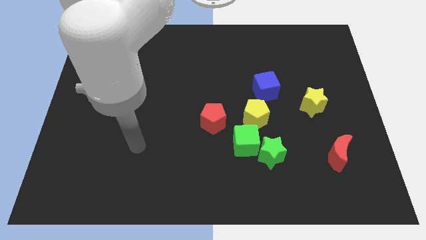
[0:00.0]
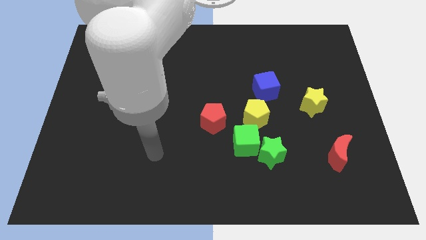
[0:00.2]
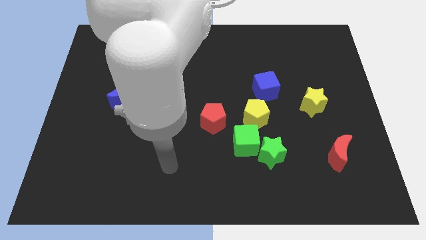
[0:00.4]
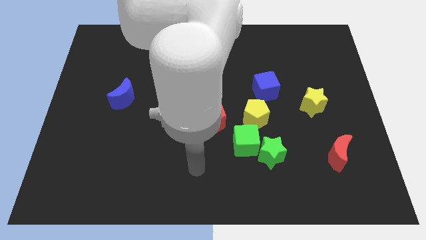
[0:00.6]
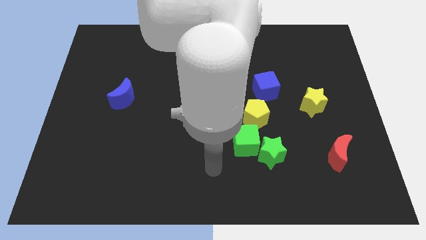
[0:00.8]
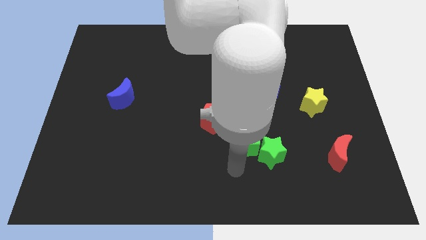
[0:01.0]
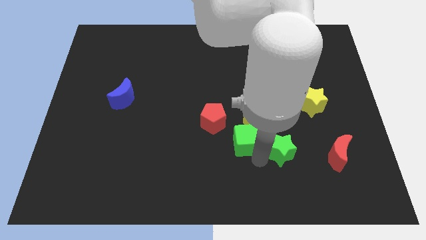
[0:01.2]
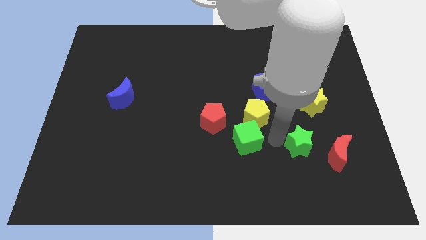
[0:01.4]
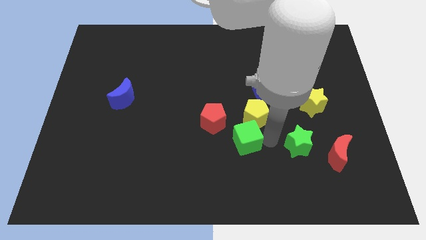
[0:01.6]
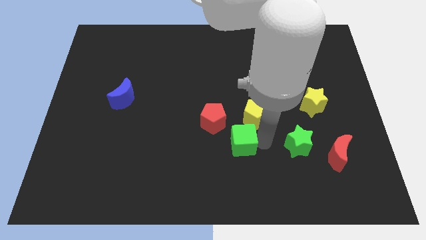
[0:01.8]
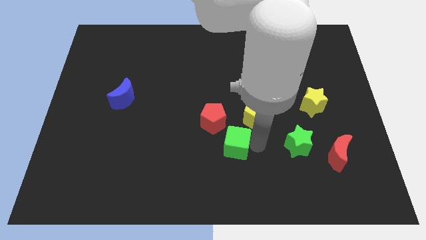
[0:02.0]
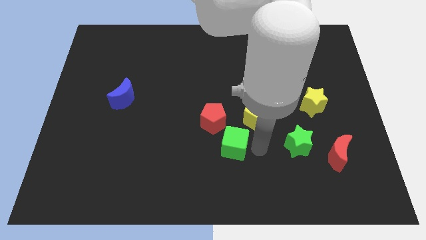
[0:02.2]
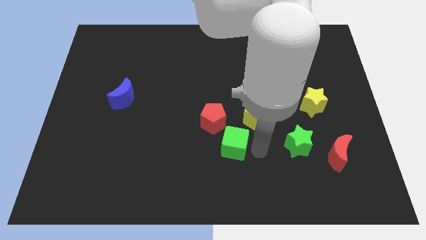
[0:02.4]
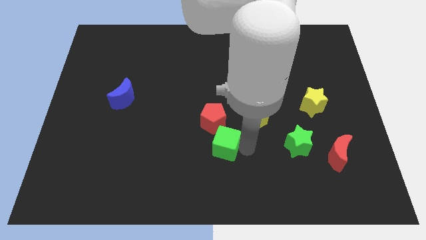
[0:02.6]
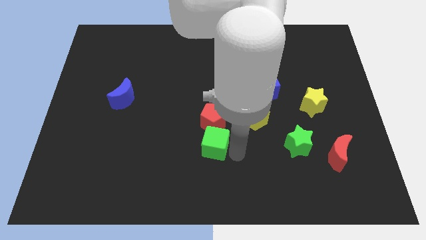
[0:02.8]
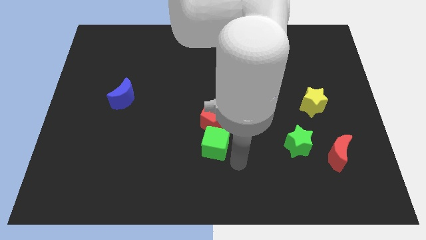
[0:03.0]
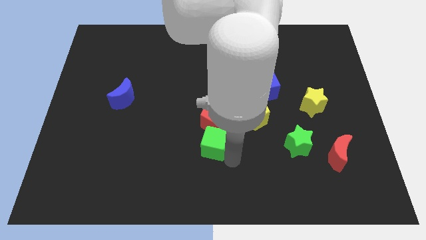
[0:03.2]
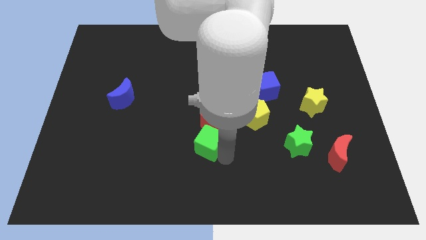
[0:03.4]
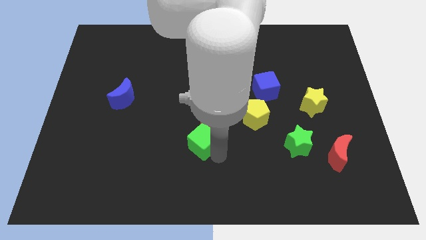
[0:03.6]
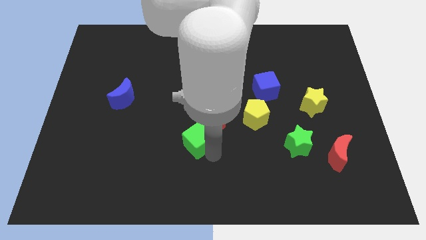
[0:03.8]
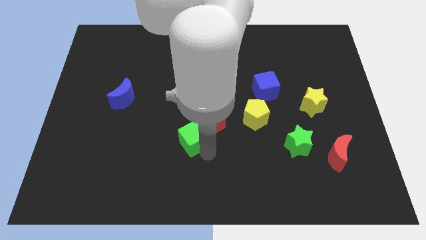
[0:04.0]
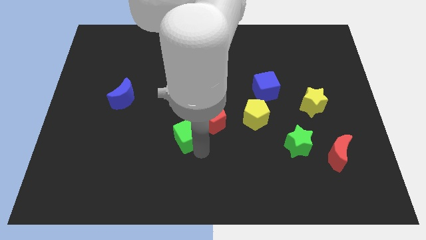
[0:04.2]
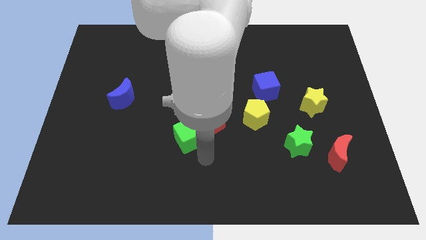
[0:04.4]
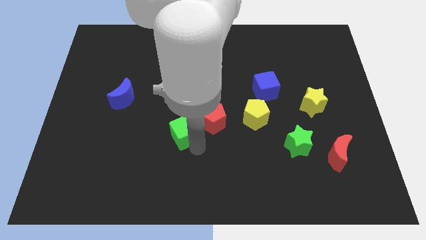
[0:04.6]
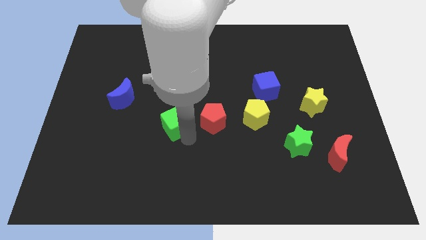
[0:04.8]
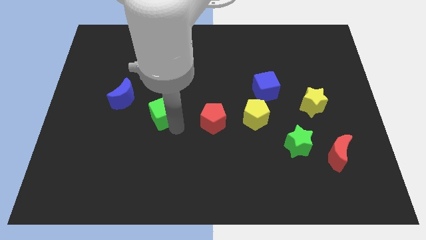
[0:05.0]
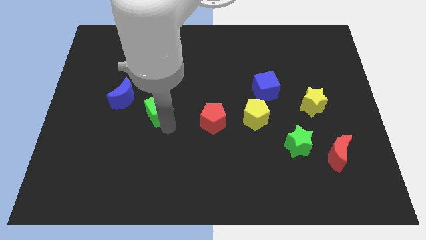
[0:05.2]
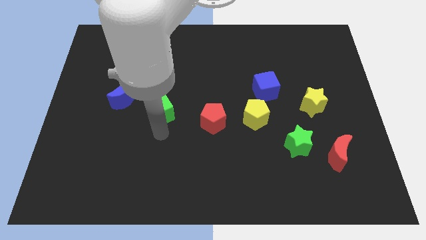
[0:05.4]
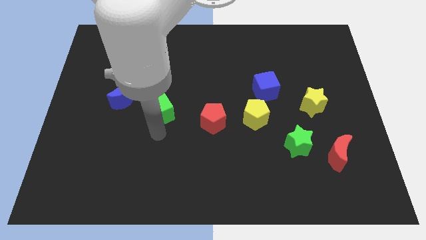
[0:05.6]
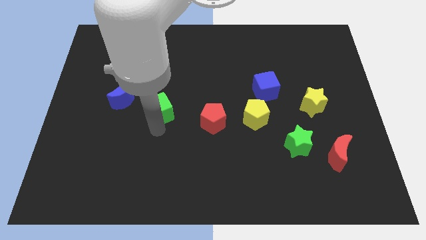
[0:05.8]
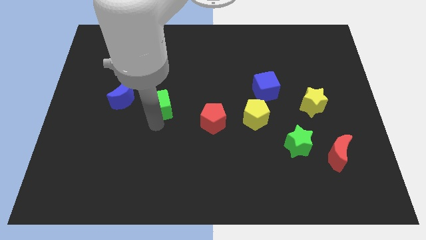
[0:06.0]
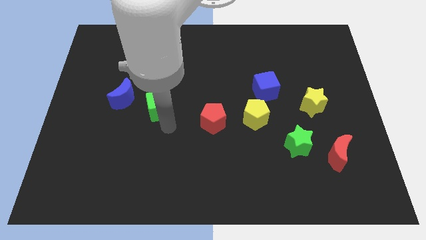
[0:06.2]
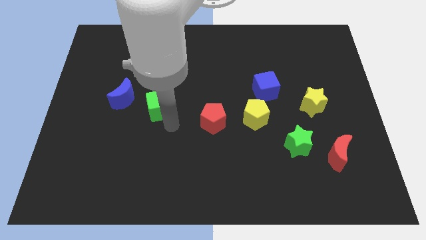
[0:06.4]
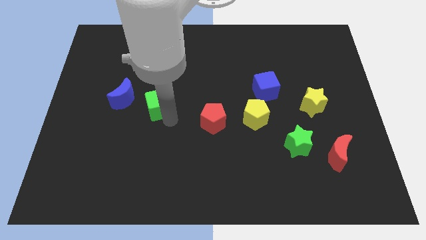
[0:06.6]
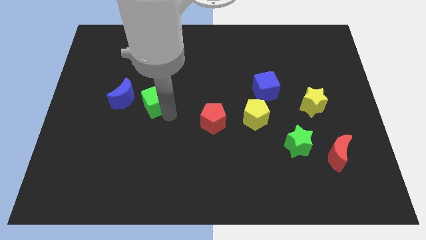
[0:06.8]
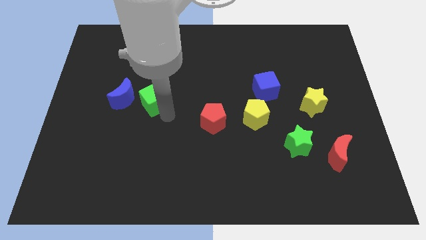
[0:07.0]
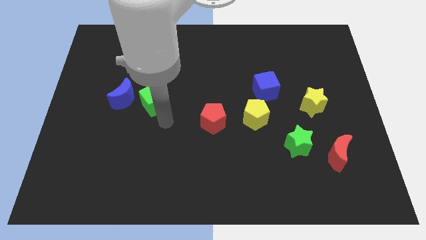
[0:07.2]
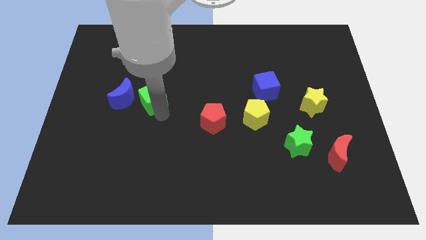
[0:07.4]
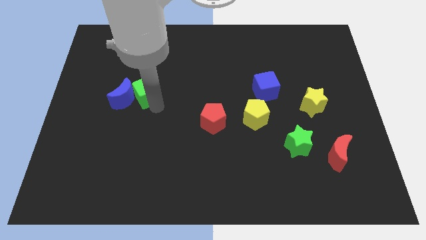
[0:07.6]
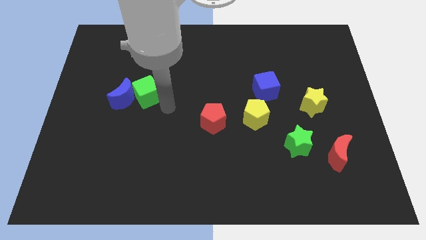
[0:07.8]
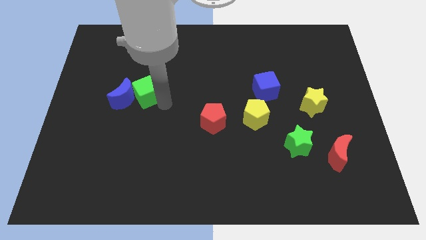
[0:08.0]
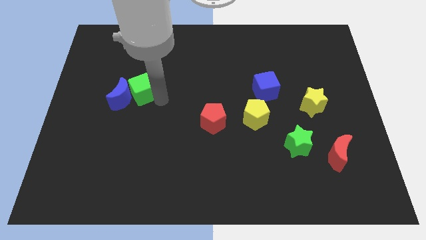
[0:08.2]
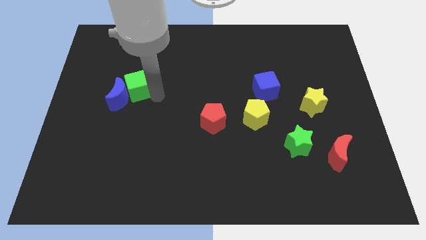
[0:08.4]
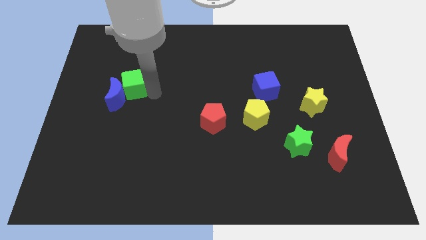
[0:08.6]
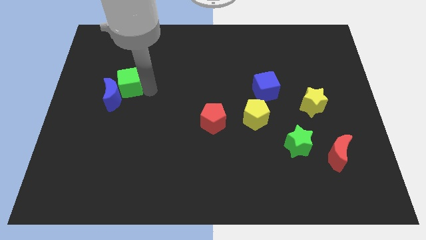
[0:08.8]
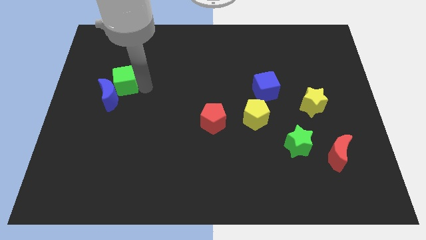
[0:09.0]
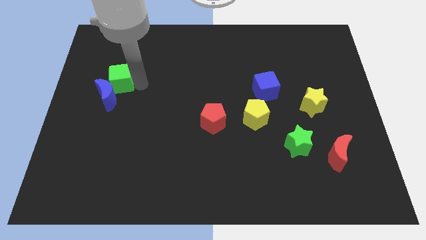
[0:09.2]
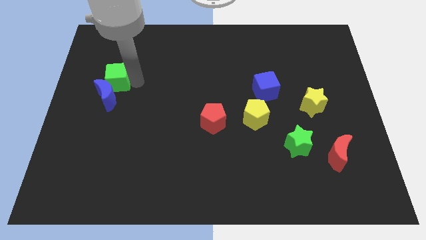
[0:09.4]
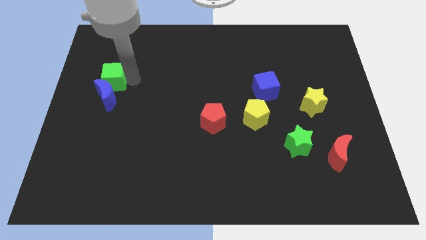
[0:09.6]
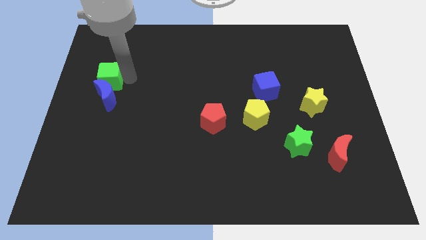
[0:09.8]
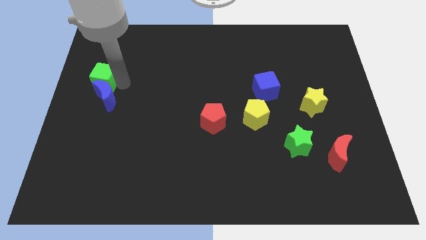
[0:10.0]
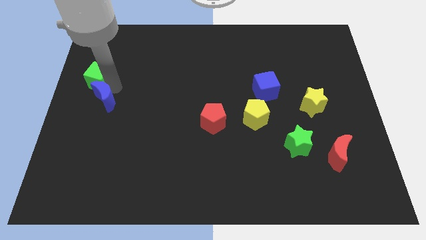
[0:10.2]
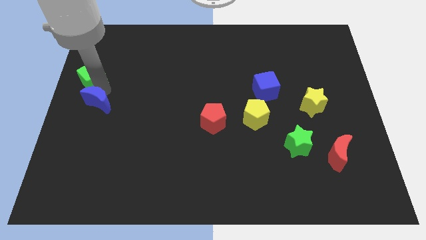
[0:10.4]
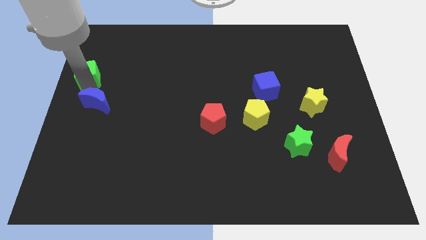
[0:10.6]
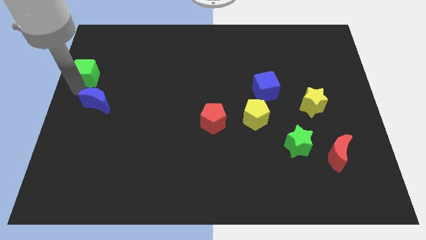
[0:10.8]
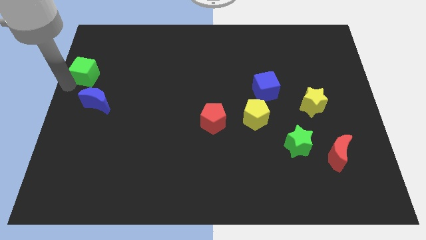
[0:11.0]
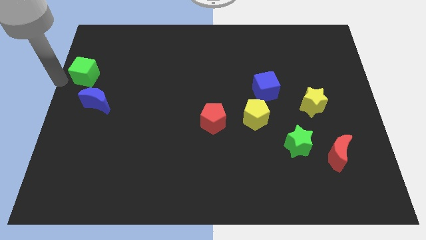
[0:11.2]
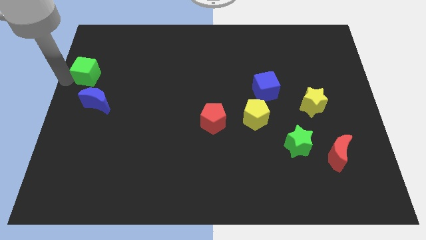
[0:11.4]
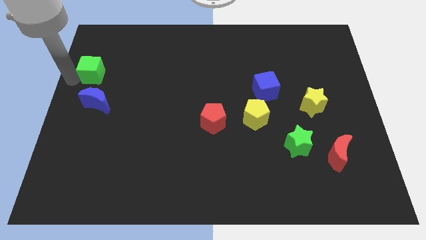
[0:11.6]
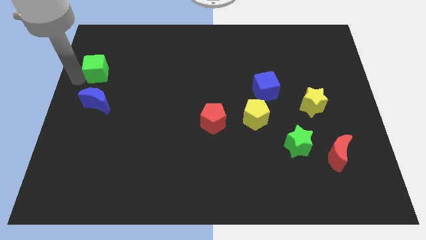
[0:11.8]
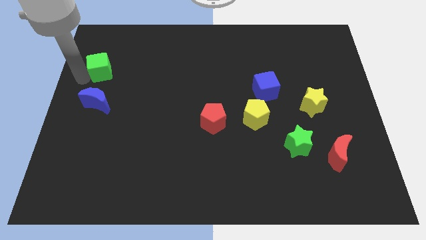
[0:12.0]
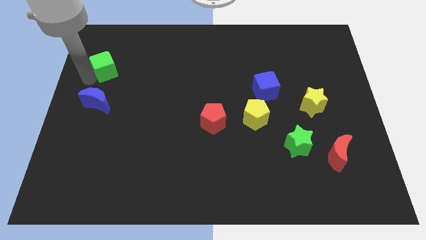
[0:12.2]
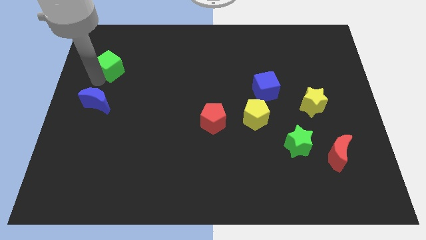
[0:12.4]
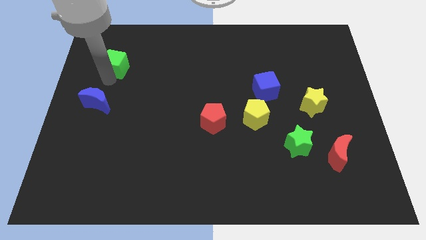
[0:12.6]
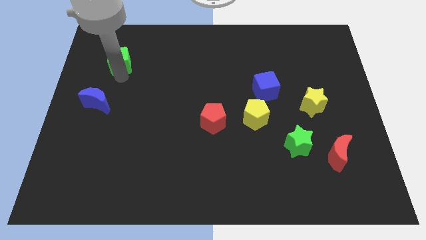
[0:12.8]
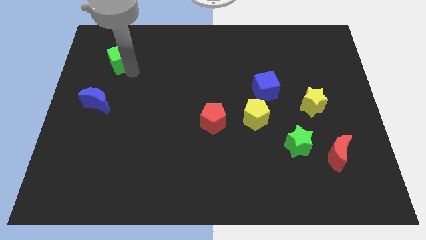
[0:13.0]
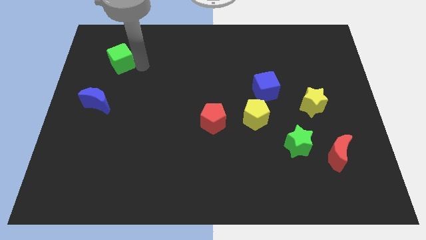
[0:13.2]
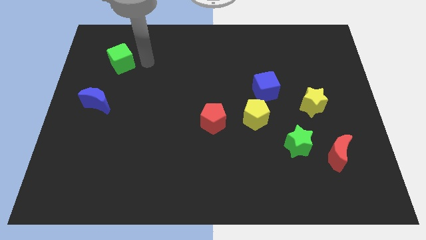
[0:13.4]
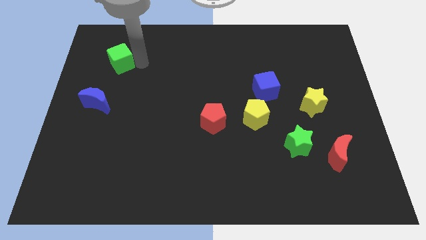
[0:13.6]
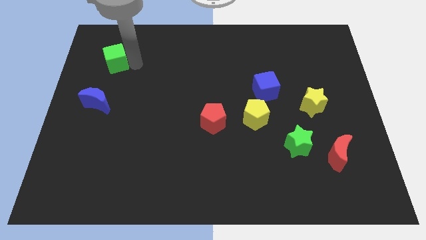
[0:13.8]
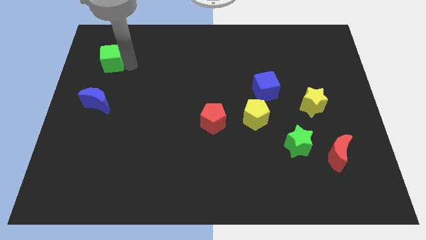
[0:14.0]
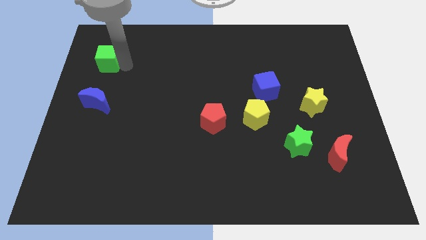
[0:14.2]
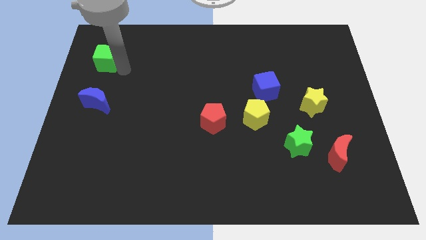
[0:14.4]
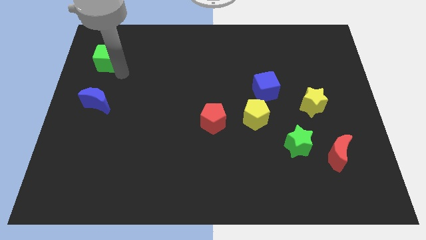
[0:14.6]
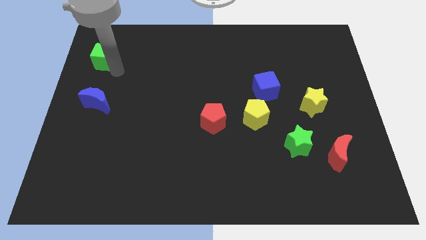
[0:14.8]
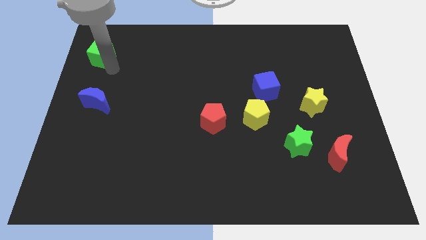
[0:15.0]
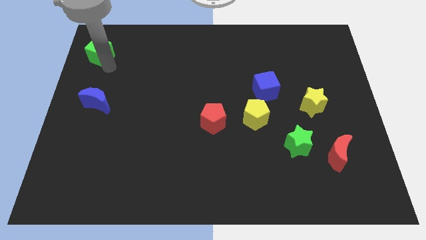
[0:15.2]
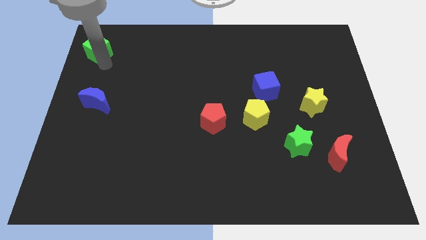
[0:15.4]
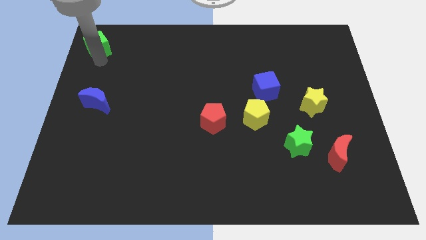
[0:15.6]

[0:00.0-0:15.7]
move the green cube to the upper left corner
